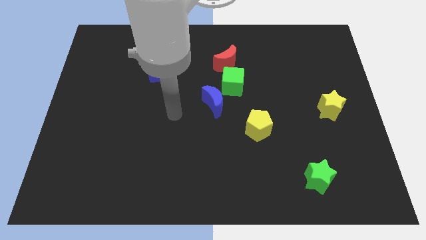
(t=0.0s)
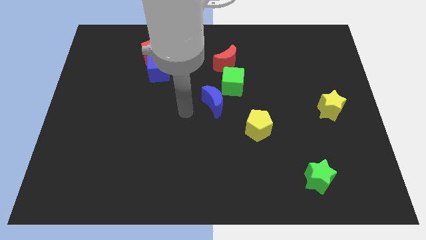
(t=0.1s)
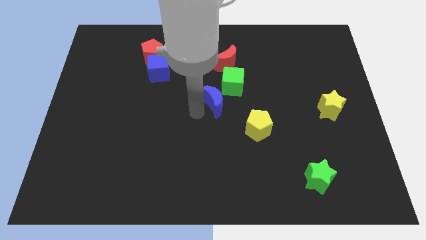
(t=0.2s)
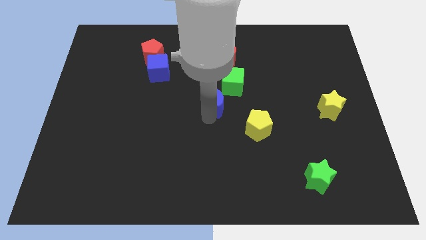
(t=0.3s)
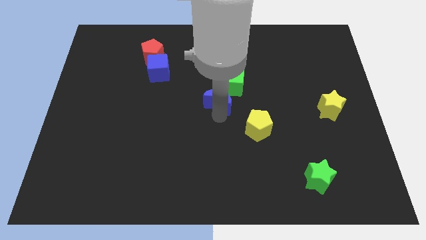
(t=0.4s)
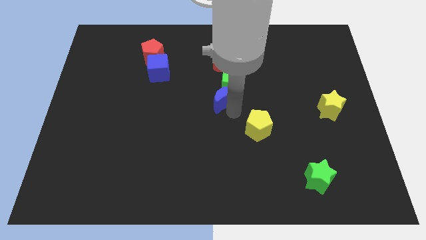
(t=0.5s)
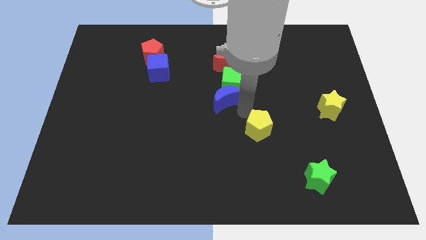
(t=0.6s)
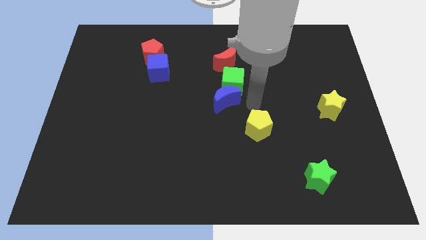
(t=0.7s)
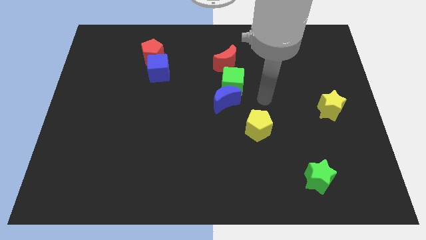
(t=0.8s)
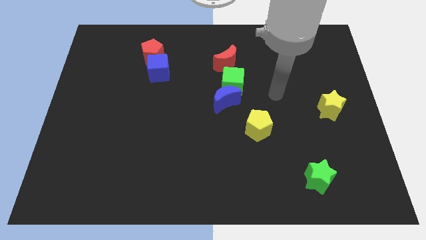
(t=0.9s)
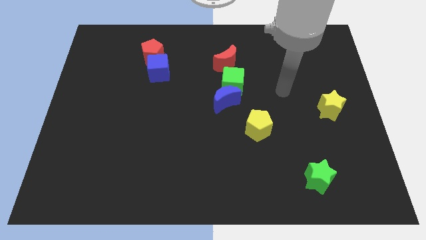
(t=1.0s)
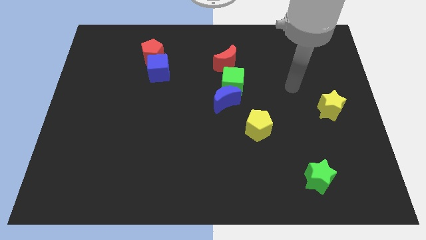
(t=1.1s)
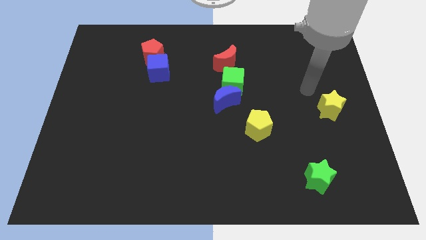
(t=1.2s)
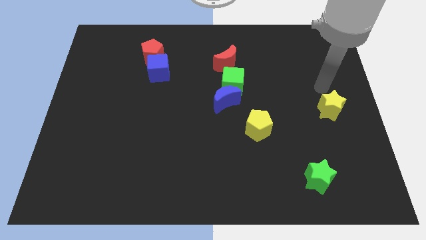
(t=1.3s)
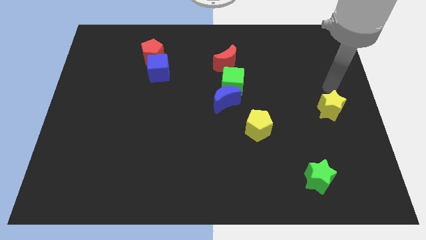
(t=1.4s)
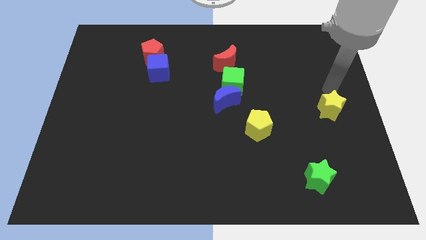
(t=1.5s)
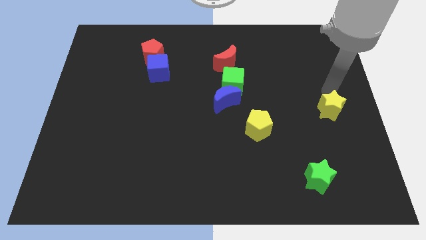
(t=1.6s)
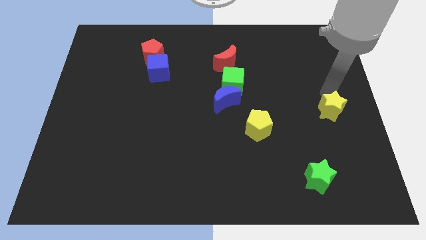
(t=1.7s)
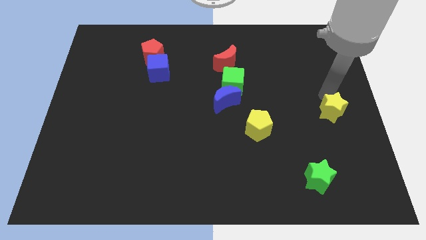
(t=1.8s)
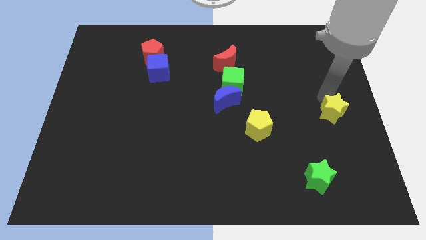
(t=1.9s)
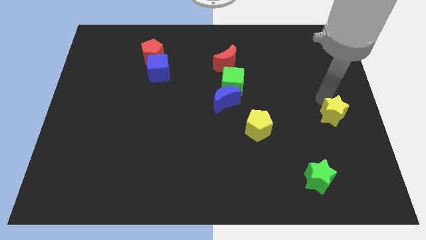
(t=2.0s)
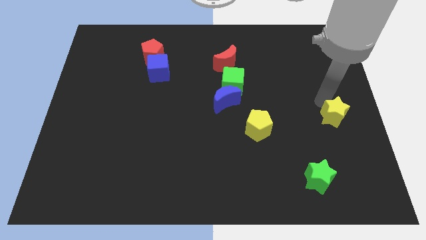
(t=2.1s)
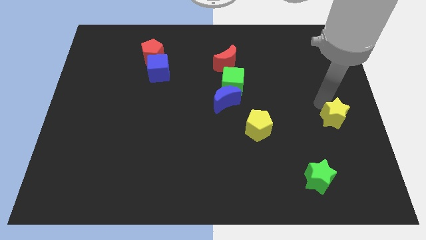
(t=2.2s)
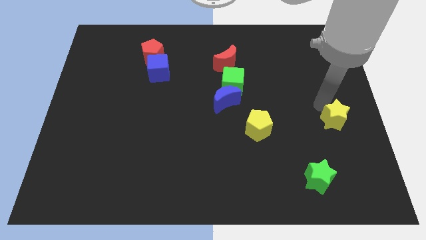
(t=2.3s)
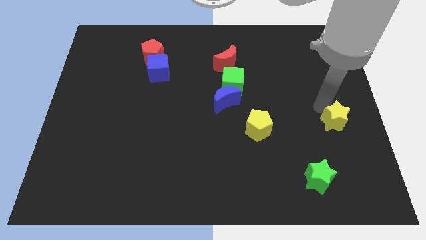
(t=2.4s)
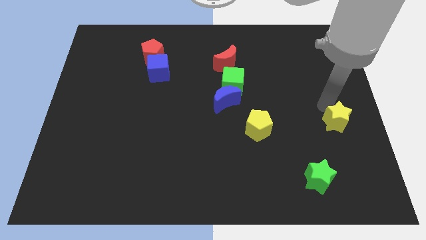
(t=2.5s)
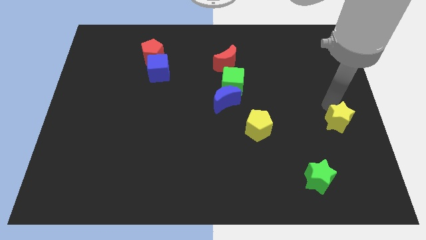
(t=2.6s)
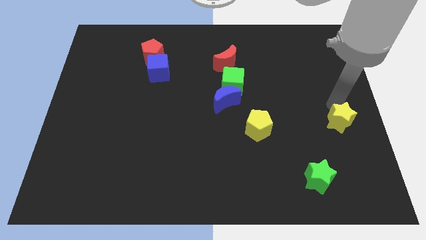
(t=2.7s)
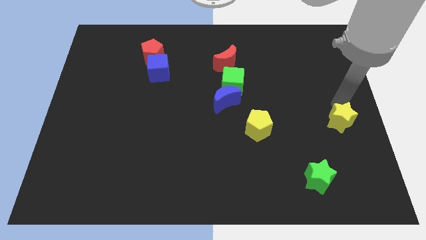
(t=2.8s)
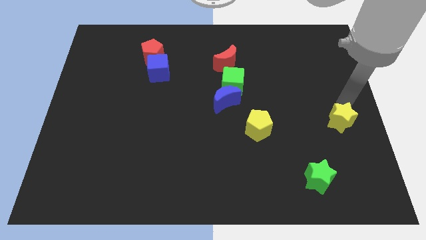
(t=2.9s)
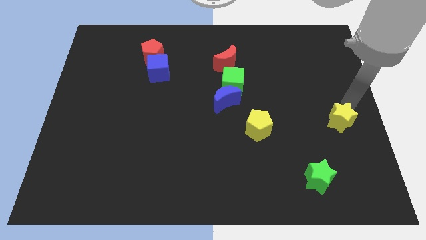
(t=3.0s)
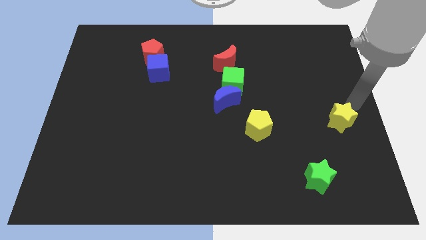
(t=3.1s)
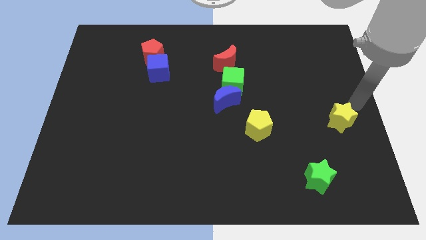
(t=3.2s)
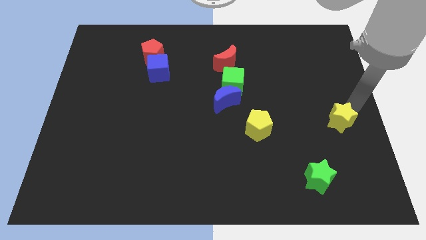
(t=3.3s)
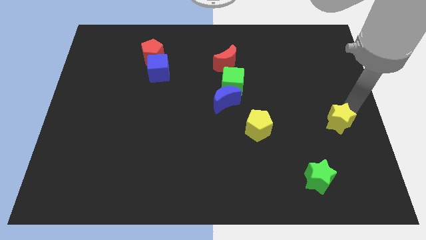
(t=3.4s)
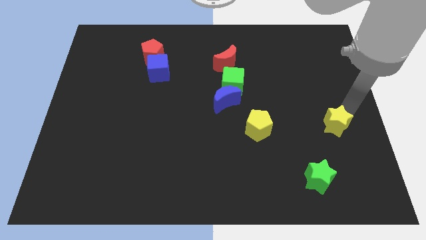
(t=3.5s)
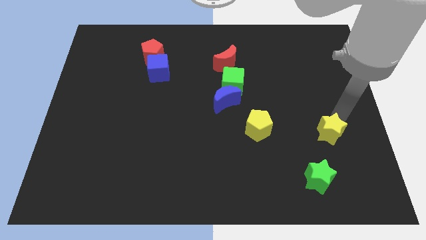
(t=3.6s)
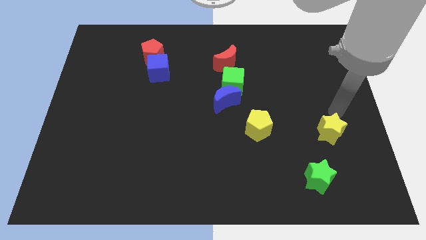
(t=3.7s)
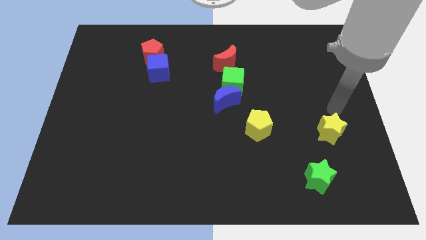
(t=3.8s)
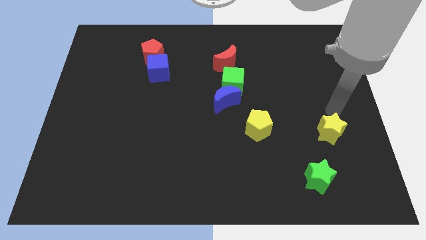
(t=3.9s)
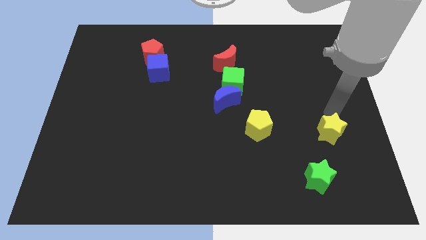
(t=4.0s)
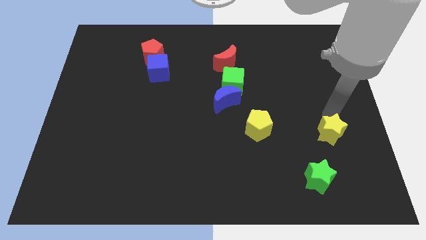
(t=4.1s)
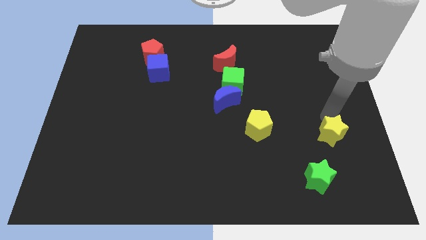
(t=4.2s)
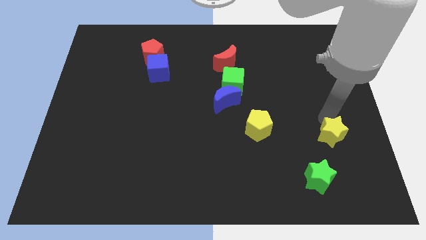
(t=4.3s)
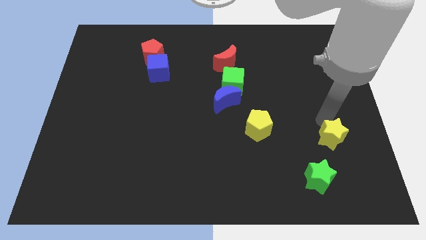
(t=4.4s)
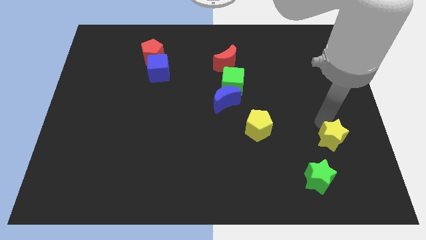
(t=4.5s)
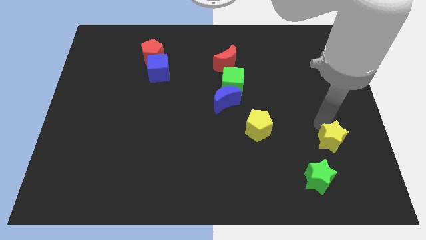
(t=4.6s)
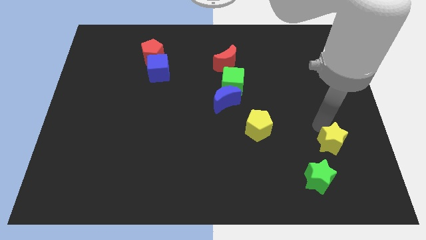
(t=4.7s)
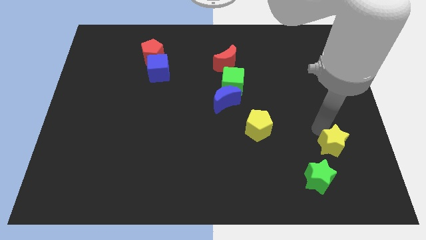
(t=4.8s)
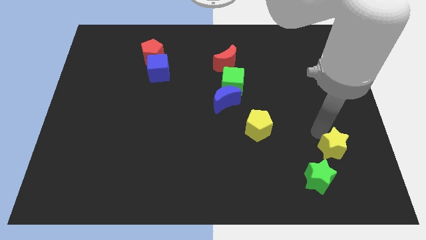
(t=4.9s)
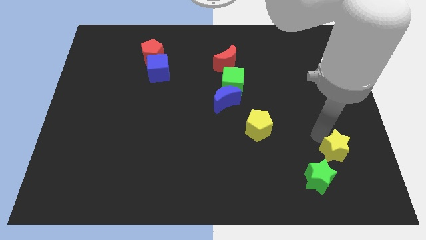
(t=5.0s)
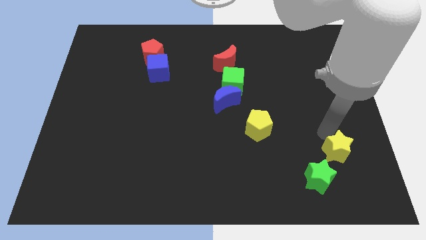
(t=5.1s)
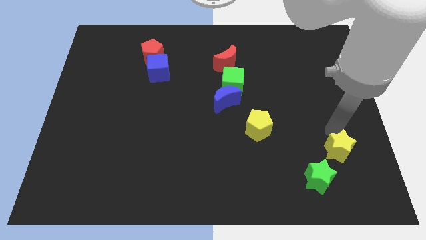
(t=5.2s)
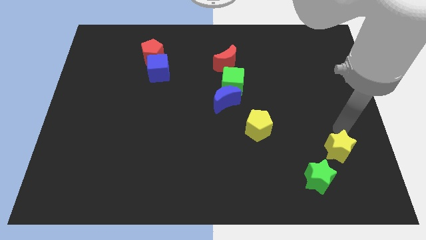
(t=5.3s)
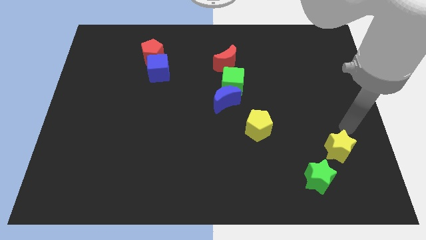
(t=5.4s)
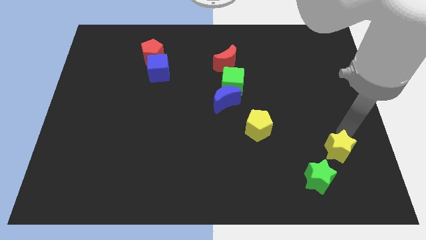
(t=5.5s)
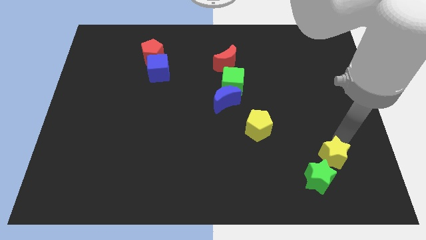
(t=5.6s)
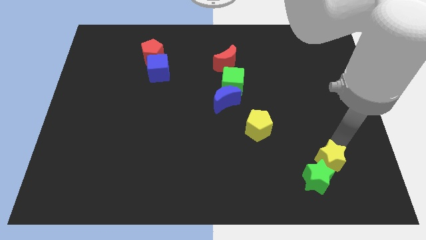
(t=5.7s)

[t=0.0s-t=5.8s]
put the yellow star next to the green star

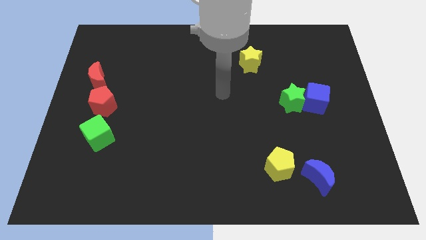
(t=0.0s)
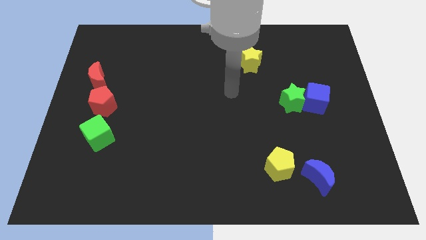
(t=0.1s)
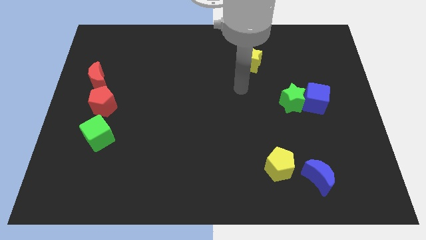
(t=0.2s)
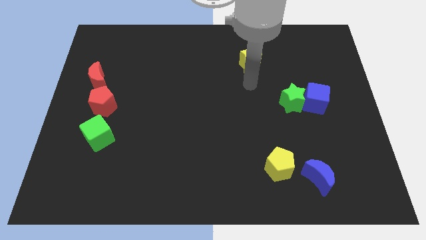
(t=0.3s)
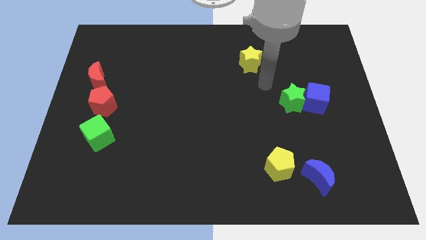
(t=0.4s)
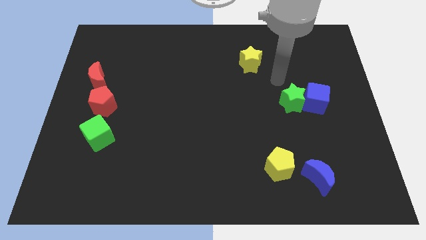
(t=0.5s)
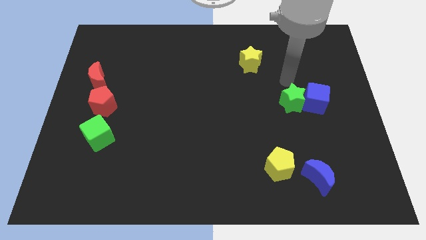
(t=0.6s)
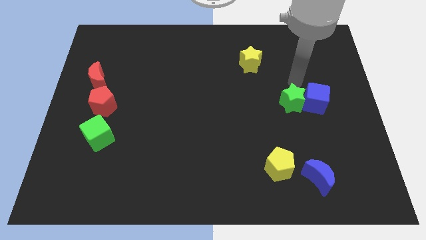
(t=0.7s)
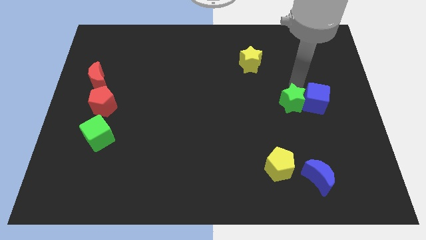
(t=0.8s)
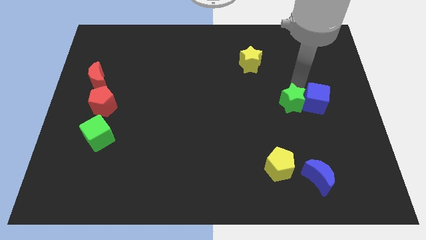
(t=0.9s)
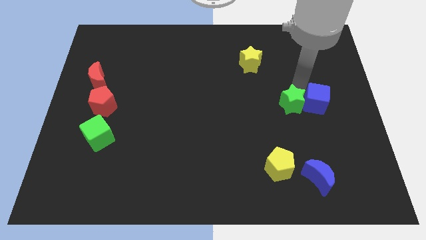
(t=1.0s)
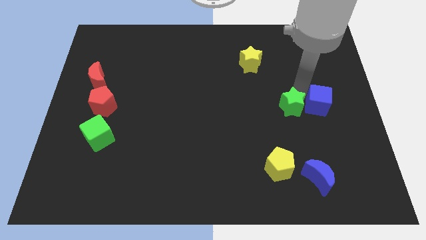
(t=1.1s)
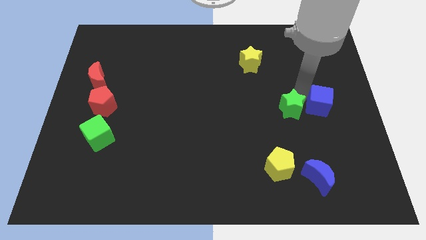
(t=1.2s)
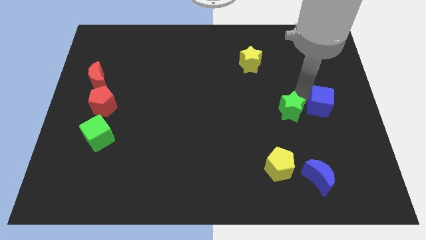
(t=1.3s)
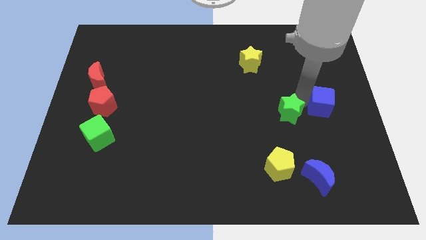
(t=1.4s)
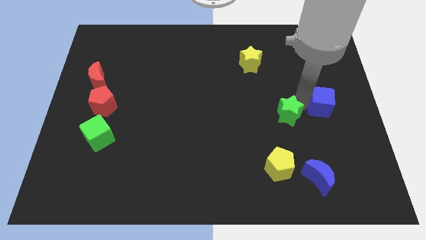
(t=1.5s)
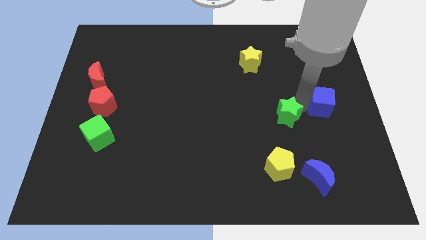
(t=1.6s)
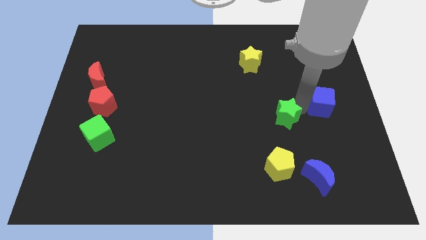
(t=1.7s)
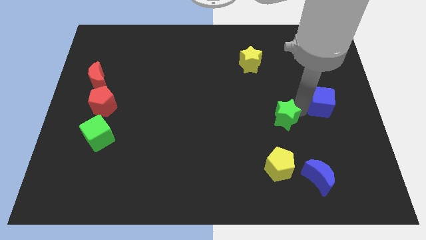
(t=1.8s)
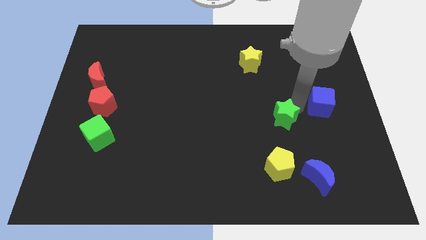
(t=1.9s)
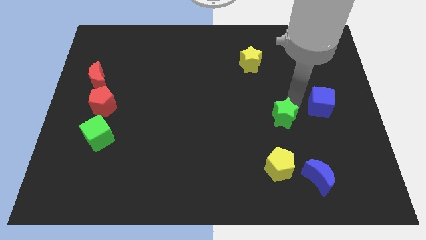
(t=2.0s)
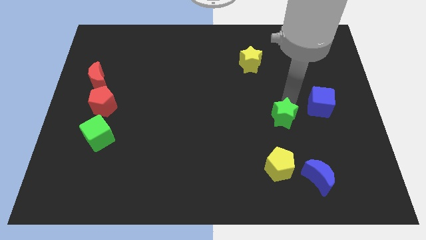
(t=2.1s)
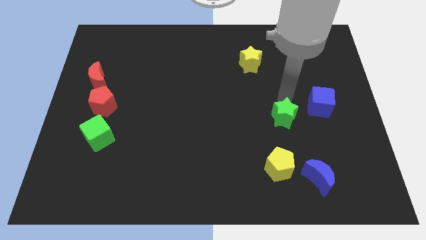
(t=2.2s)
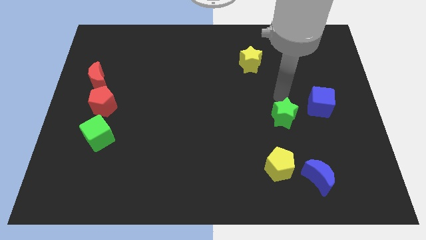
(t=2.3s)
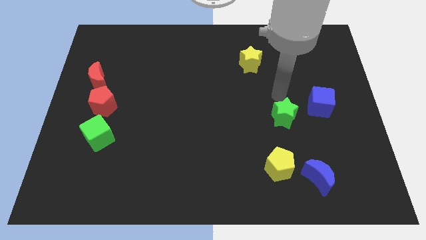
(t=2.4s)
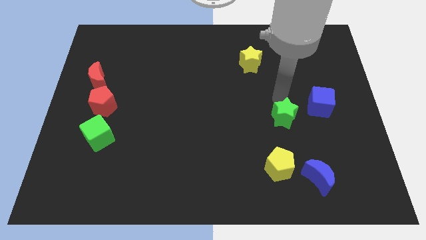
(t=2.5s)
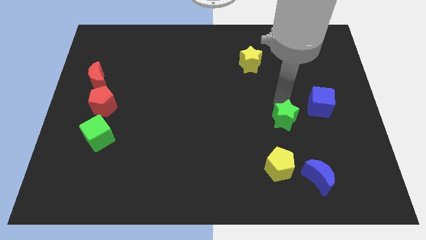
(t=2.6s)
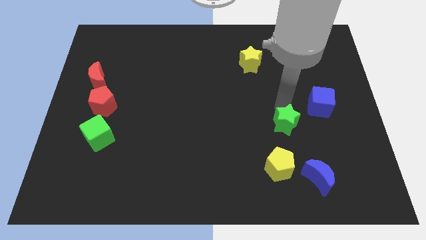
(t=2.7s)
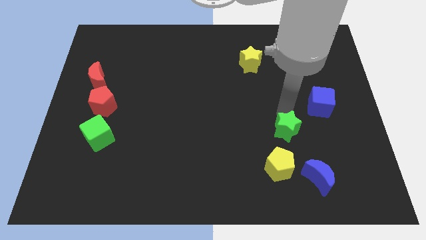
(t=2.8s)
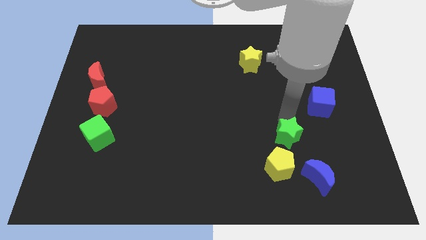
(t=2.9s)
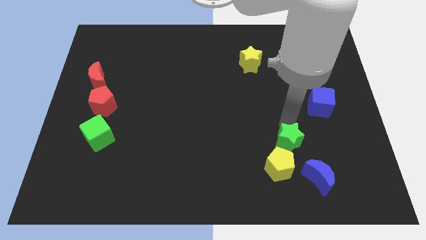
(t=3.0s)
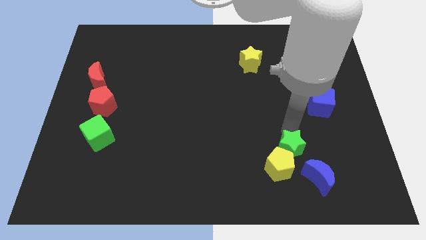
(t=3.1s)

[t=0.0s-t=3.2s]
push the green star towards the yellow pentagon
